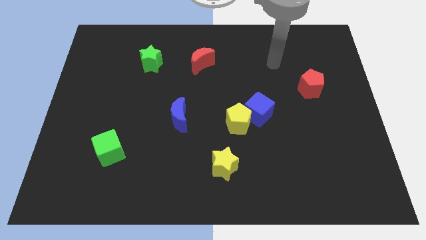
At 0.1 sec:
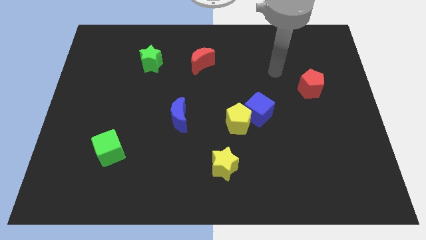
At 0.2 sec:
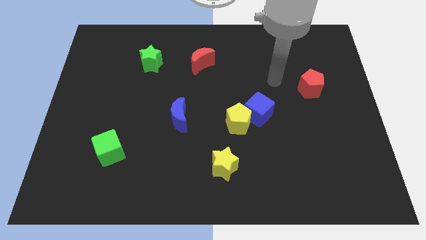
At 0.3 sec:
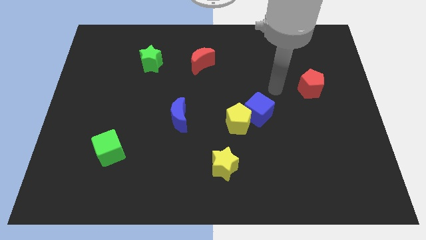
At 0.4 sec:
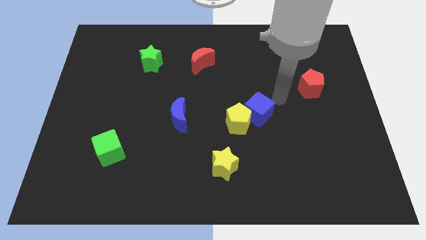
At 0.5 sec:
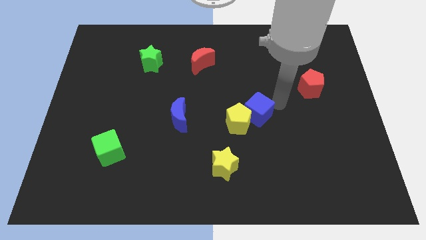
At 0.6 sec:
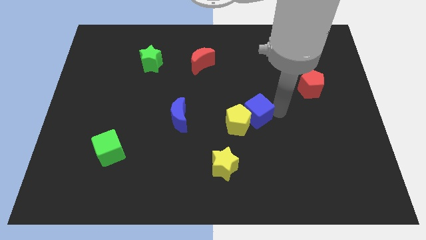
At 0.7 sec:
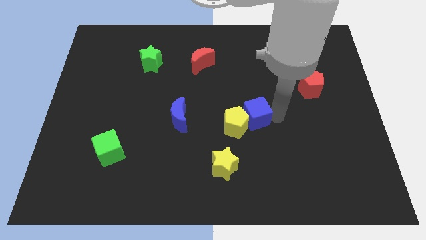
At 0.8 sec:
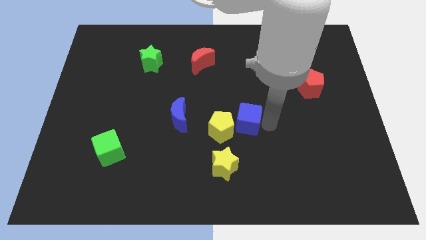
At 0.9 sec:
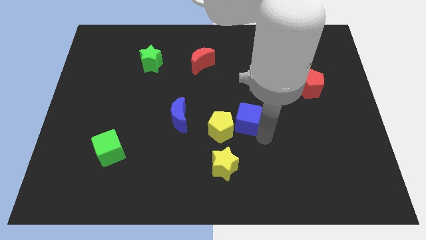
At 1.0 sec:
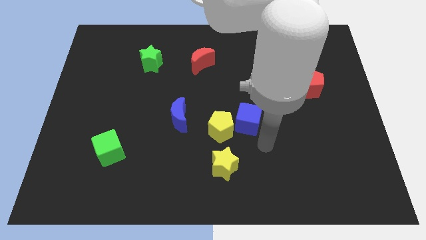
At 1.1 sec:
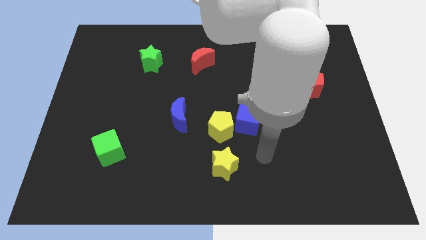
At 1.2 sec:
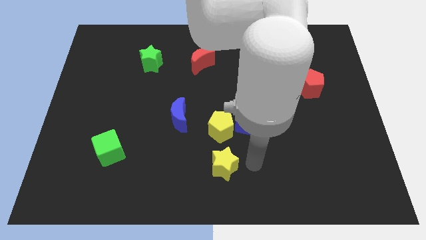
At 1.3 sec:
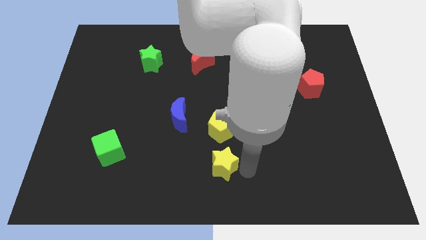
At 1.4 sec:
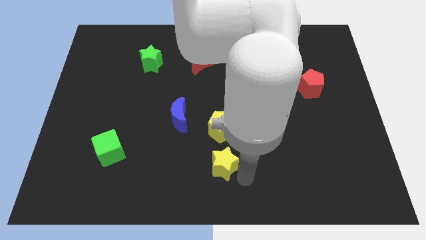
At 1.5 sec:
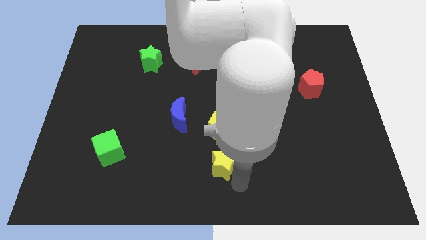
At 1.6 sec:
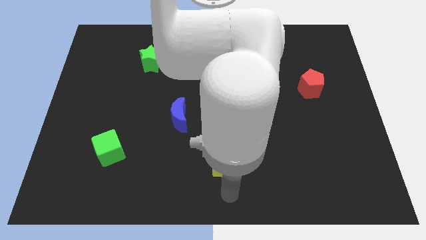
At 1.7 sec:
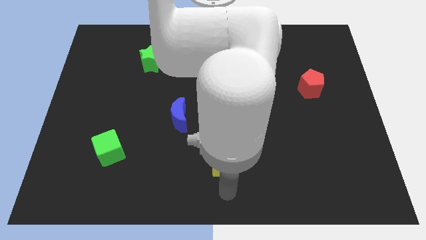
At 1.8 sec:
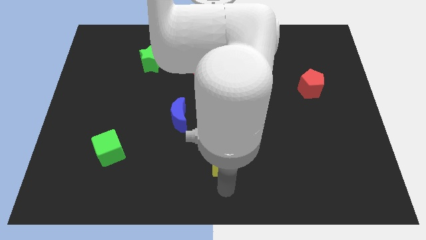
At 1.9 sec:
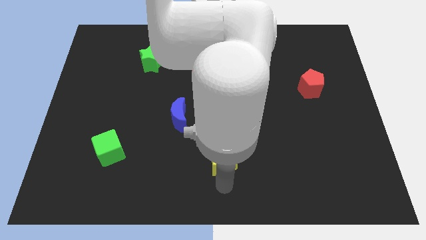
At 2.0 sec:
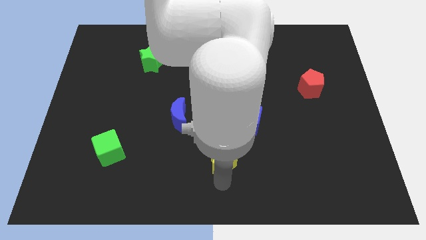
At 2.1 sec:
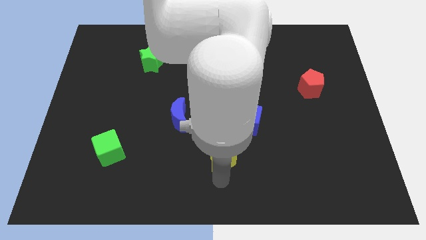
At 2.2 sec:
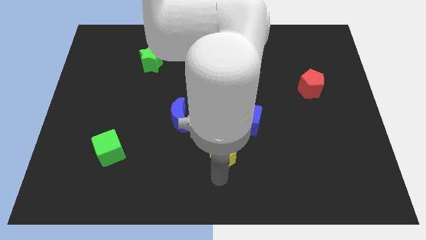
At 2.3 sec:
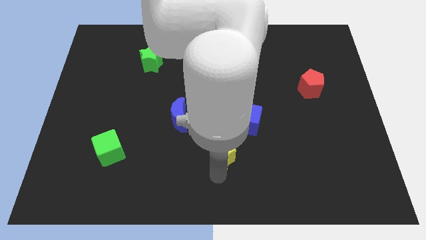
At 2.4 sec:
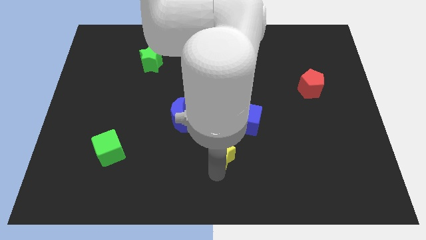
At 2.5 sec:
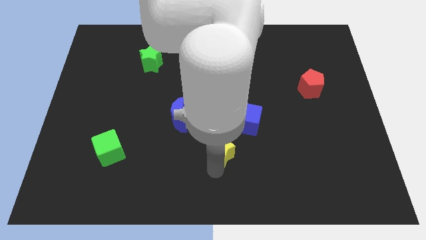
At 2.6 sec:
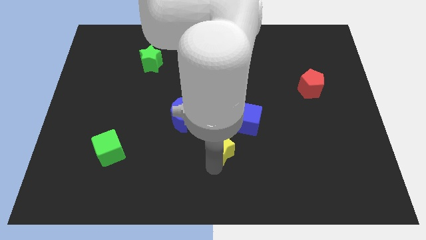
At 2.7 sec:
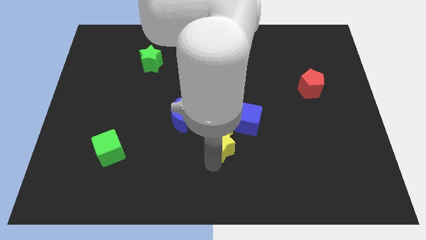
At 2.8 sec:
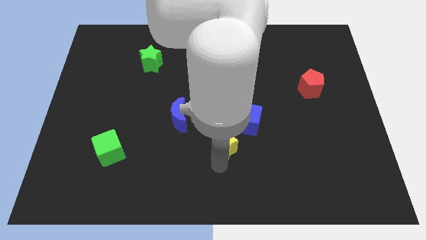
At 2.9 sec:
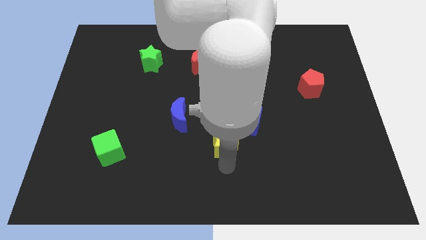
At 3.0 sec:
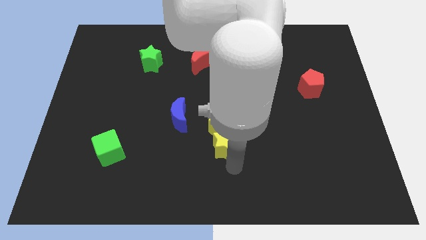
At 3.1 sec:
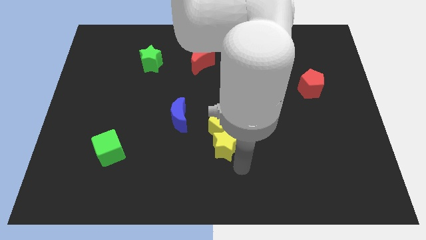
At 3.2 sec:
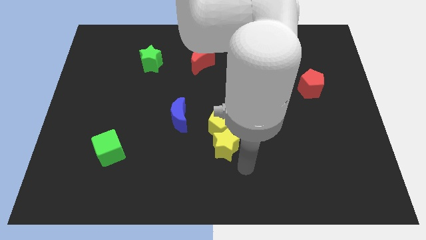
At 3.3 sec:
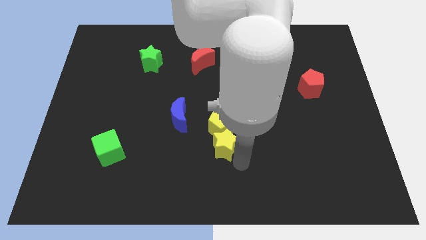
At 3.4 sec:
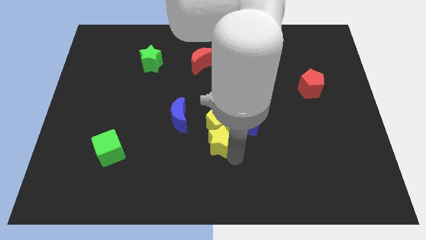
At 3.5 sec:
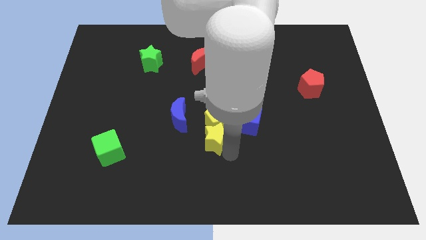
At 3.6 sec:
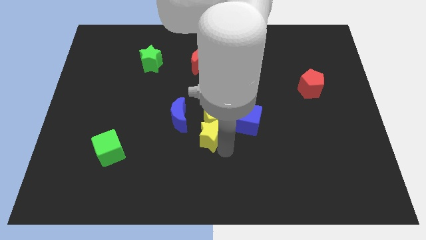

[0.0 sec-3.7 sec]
push the yellow star somewhat up

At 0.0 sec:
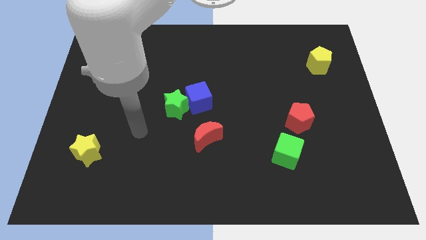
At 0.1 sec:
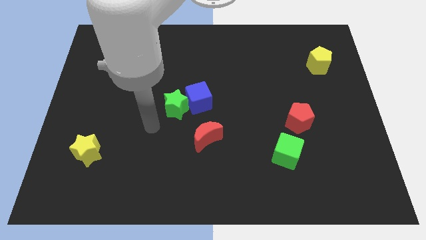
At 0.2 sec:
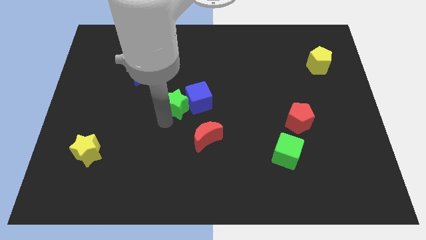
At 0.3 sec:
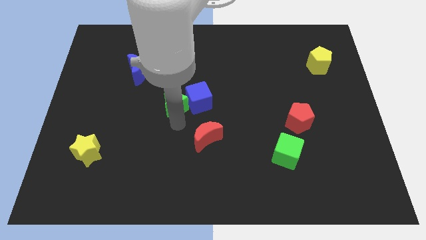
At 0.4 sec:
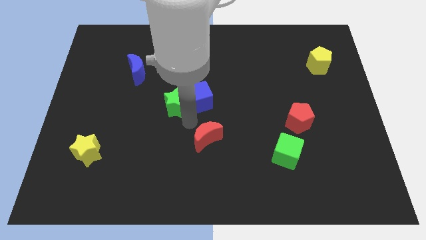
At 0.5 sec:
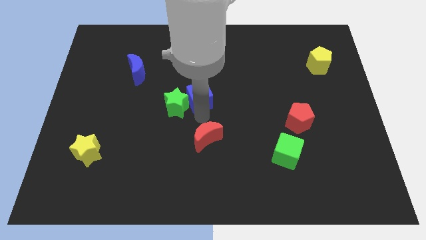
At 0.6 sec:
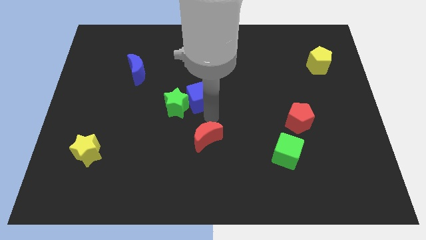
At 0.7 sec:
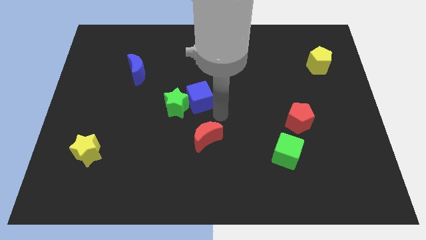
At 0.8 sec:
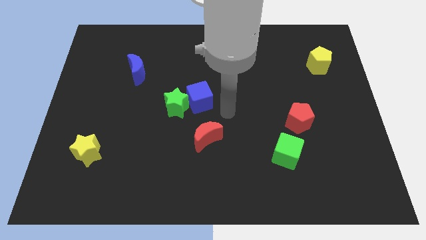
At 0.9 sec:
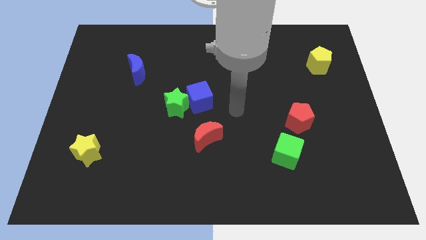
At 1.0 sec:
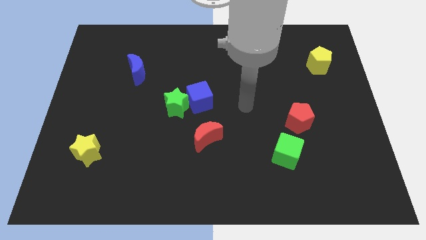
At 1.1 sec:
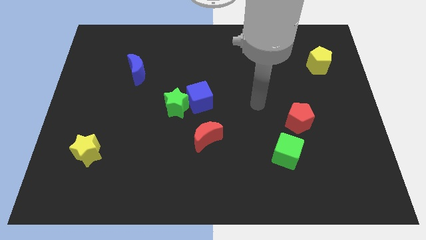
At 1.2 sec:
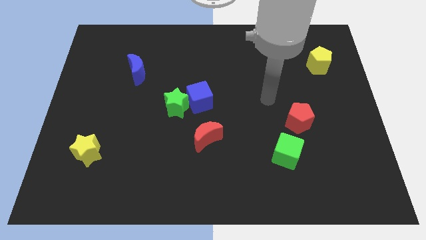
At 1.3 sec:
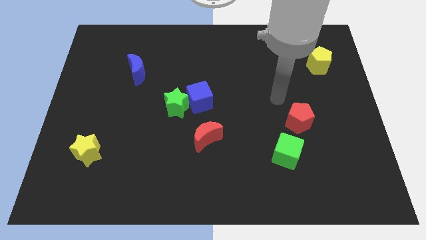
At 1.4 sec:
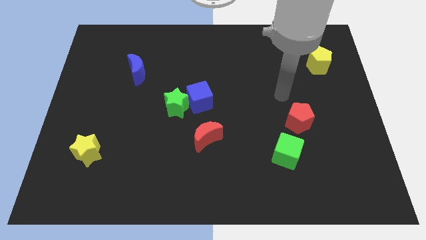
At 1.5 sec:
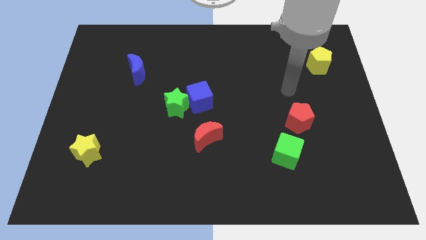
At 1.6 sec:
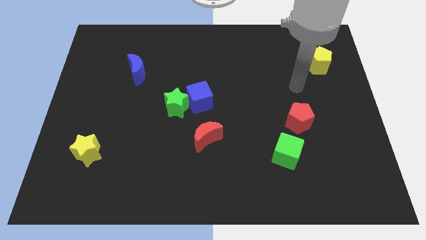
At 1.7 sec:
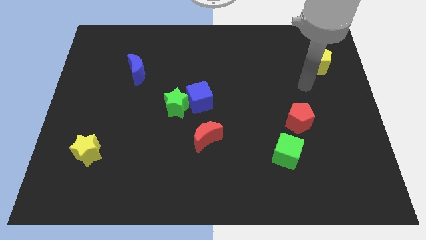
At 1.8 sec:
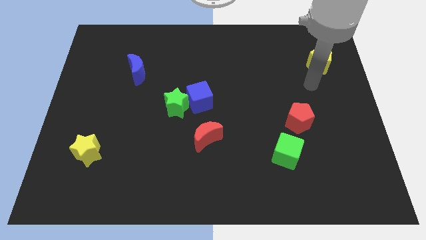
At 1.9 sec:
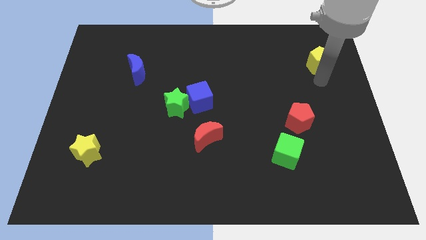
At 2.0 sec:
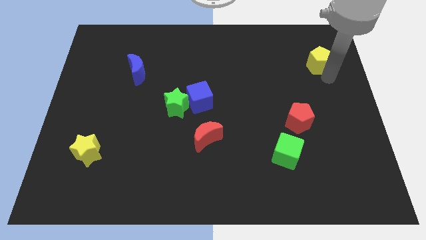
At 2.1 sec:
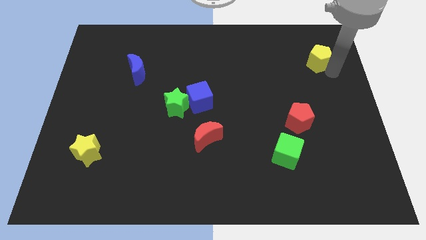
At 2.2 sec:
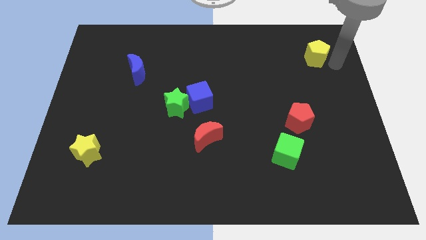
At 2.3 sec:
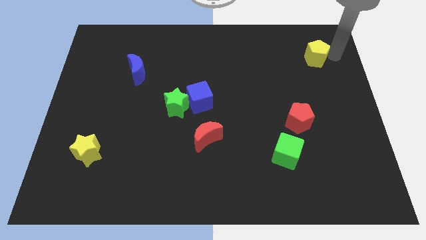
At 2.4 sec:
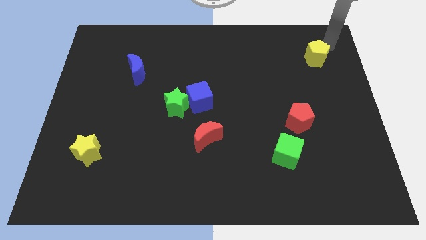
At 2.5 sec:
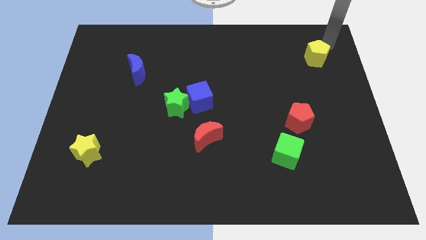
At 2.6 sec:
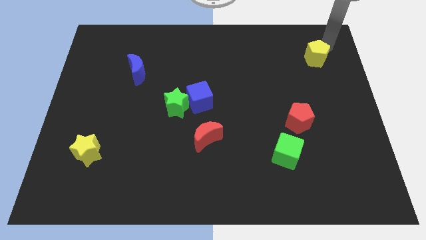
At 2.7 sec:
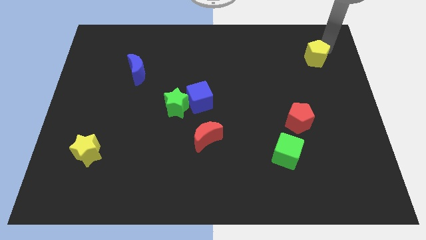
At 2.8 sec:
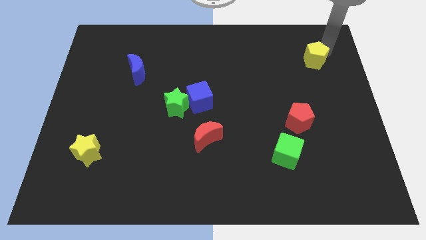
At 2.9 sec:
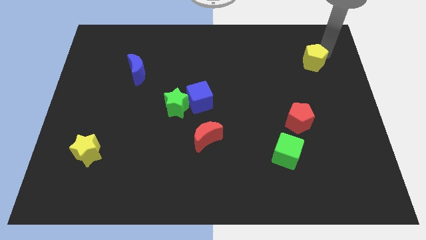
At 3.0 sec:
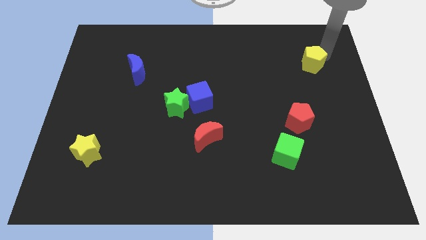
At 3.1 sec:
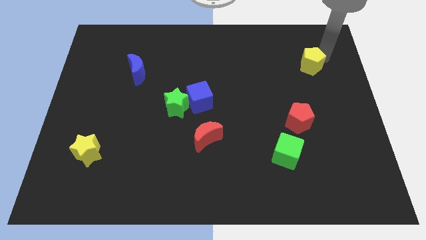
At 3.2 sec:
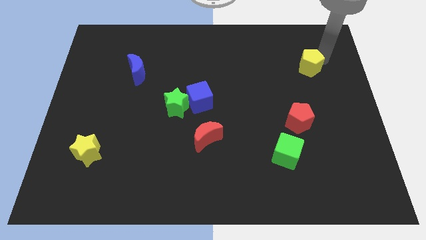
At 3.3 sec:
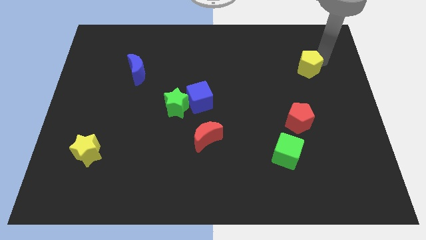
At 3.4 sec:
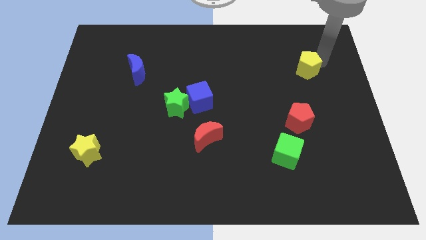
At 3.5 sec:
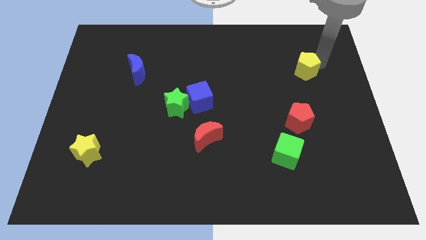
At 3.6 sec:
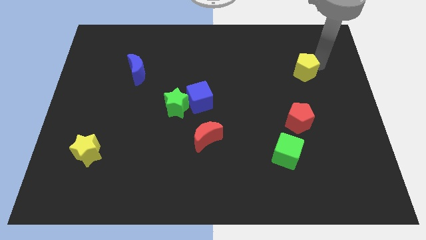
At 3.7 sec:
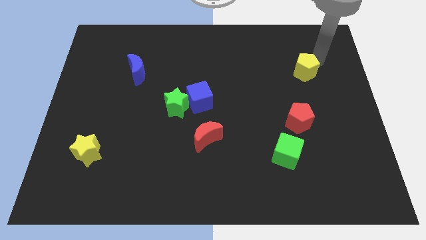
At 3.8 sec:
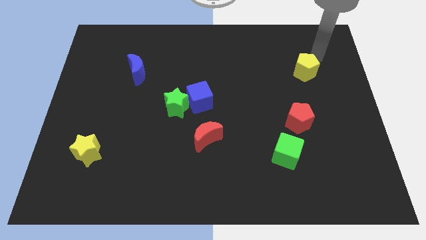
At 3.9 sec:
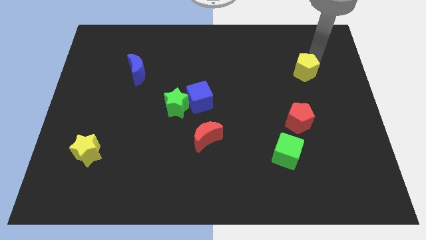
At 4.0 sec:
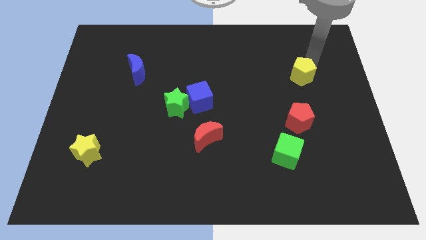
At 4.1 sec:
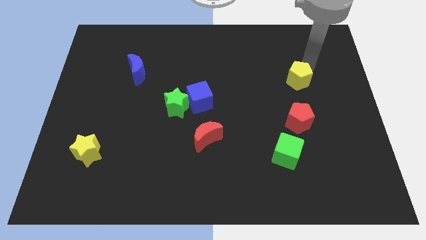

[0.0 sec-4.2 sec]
push the yellow pentagon a bit down and then left

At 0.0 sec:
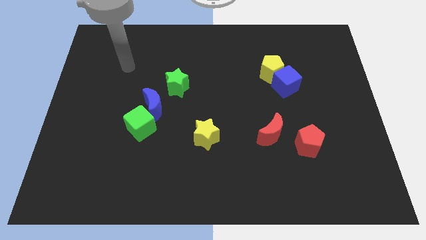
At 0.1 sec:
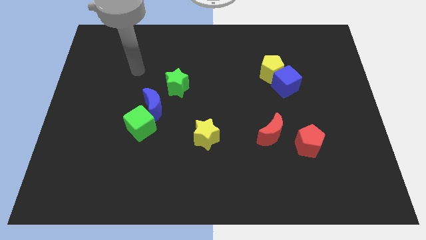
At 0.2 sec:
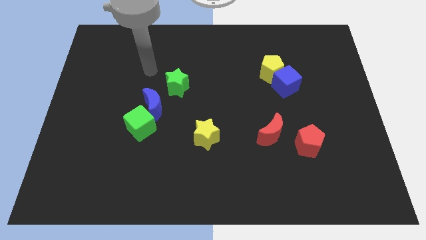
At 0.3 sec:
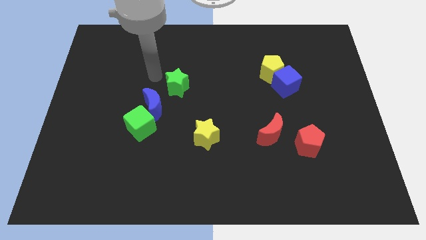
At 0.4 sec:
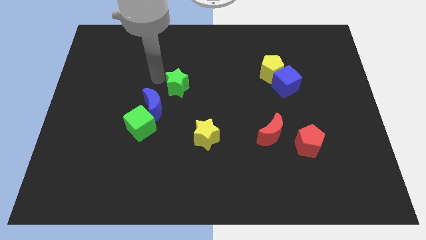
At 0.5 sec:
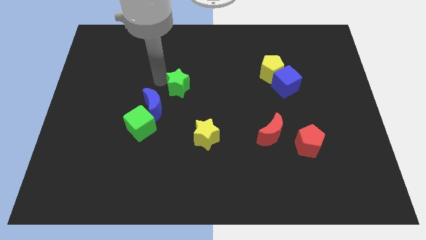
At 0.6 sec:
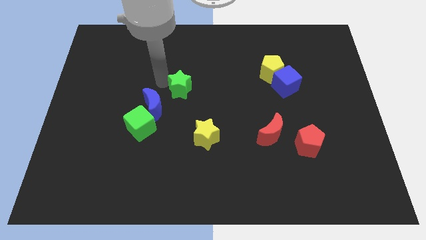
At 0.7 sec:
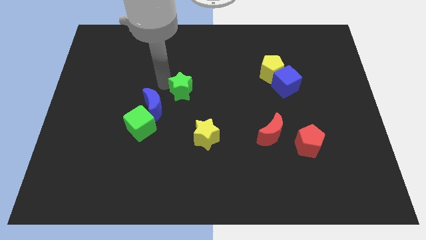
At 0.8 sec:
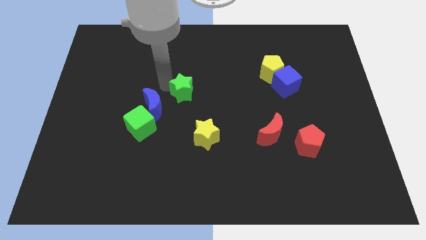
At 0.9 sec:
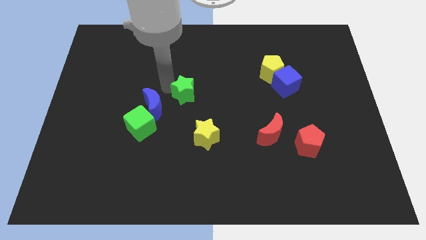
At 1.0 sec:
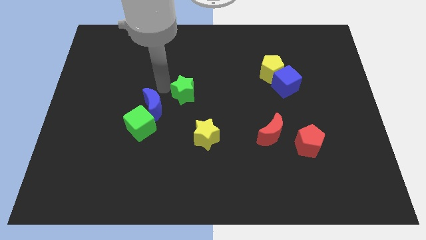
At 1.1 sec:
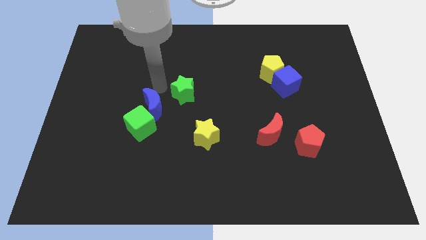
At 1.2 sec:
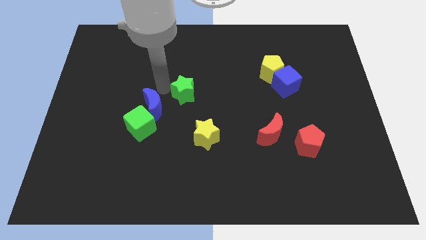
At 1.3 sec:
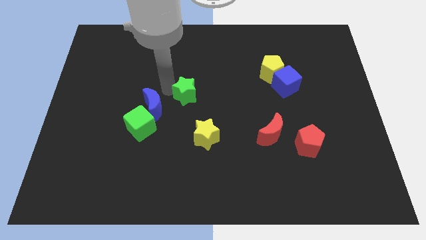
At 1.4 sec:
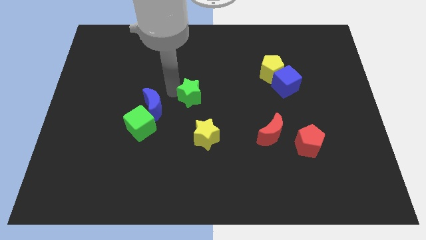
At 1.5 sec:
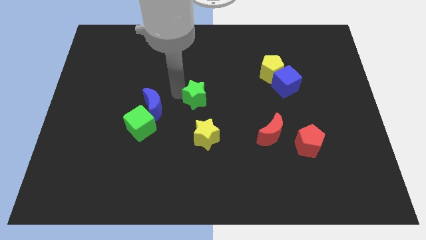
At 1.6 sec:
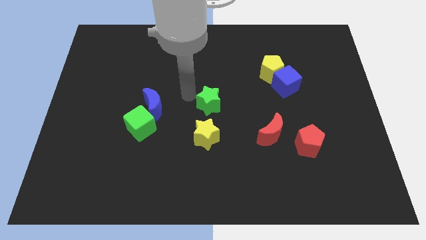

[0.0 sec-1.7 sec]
slide the green star down and then to the right a bit
